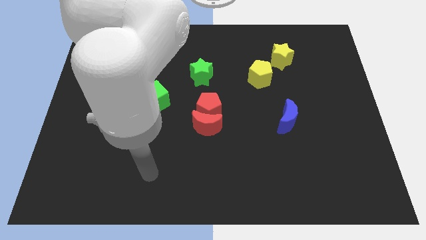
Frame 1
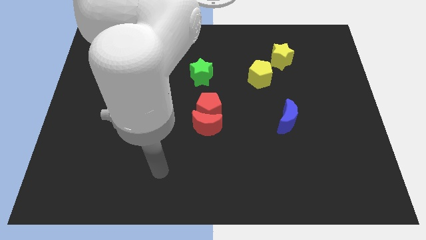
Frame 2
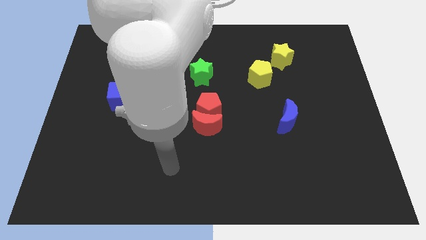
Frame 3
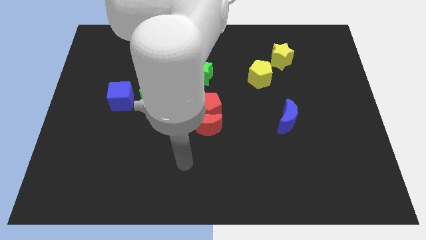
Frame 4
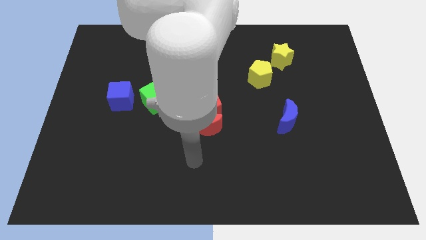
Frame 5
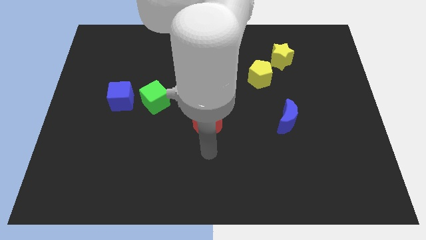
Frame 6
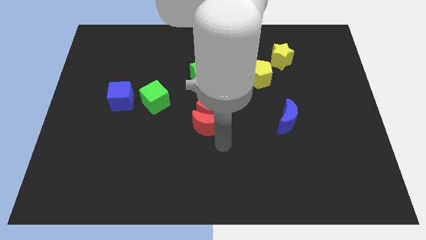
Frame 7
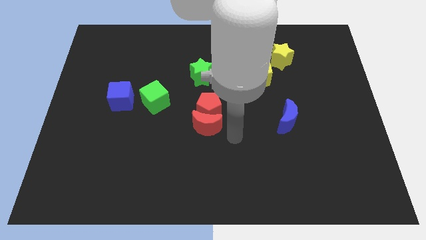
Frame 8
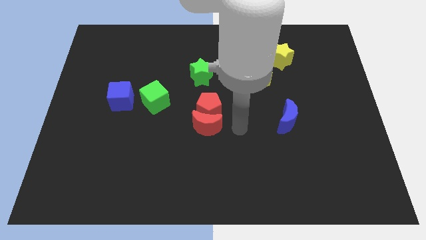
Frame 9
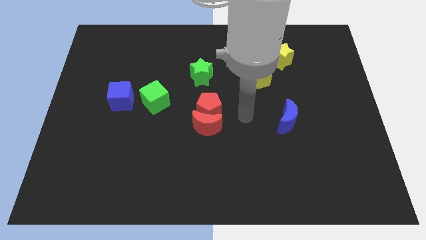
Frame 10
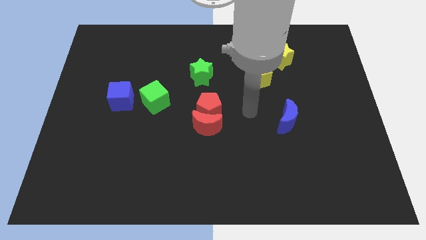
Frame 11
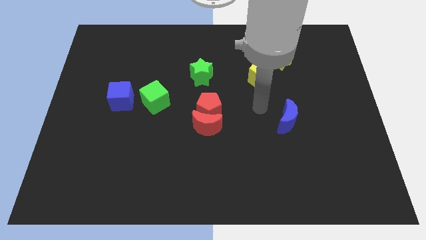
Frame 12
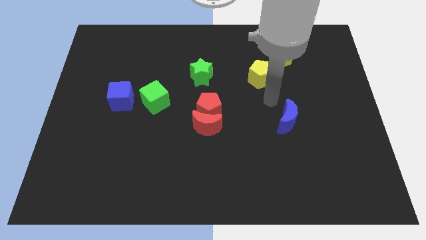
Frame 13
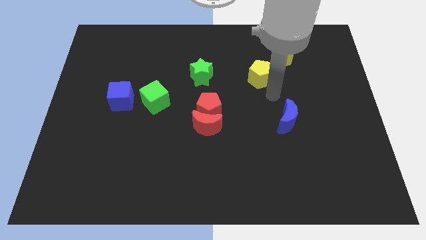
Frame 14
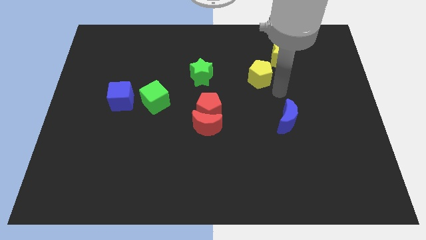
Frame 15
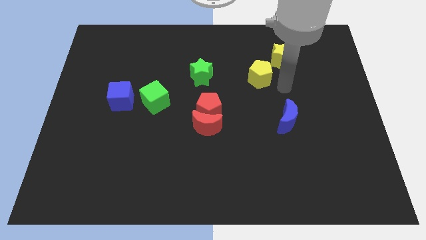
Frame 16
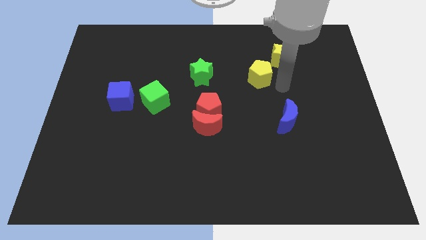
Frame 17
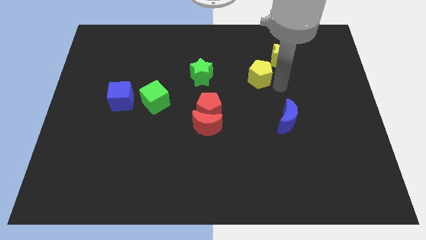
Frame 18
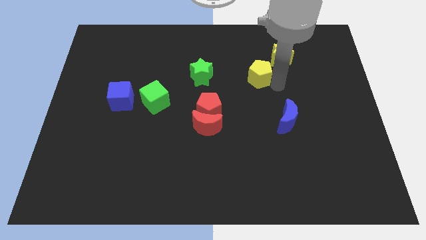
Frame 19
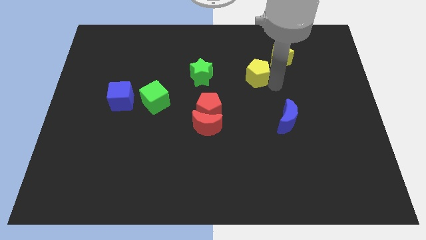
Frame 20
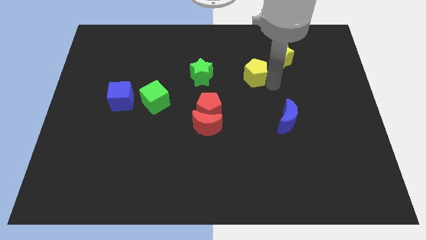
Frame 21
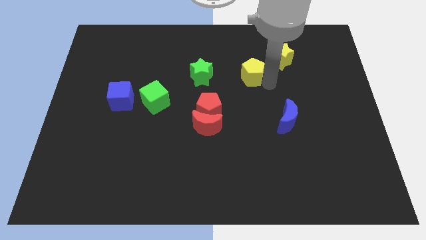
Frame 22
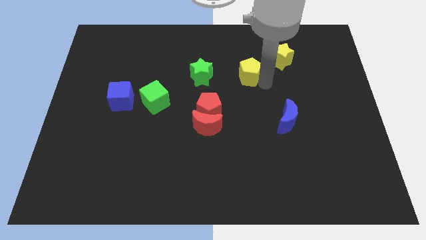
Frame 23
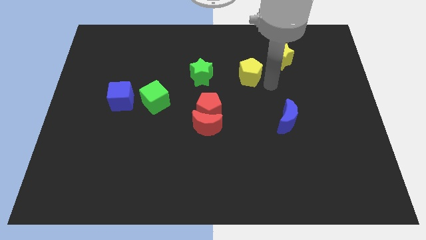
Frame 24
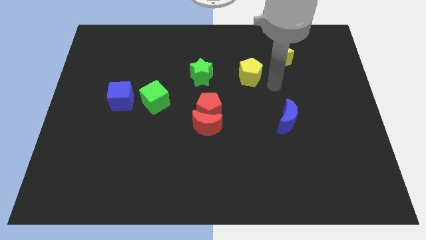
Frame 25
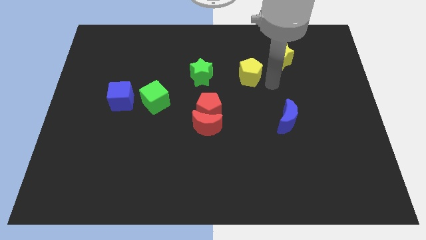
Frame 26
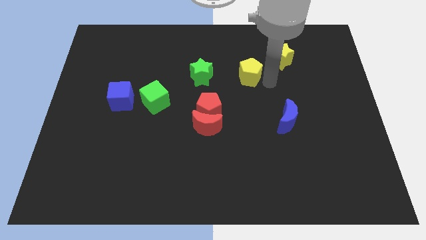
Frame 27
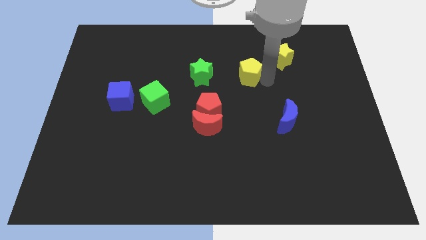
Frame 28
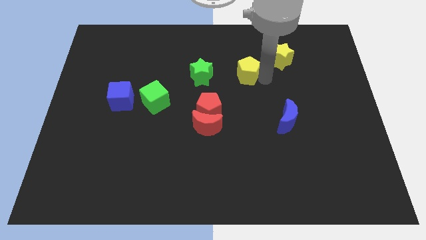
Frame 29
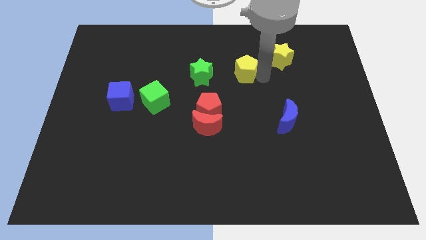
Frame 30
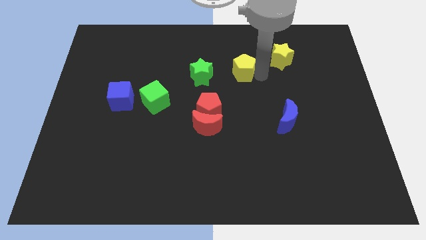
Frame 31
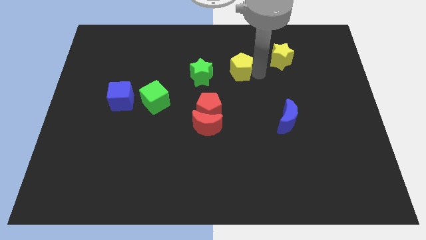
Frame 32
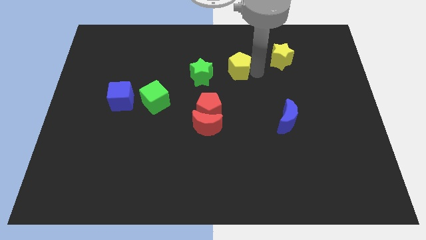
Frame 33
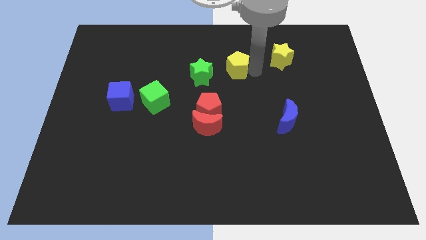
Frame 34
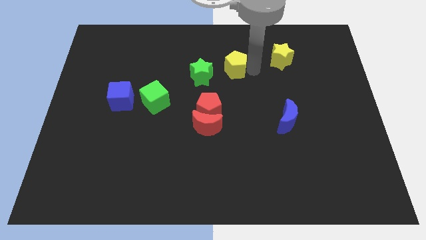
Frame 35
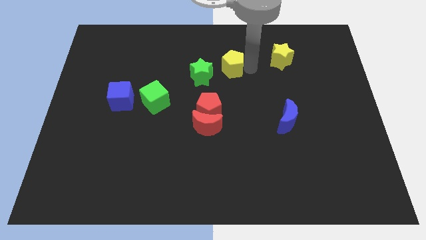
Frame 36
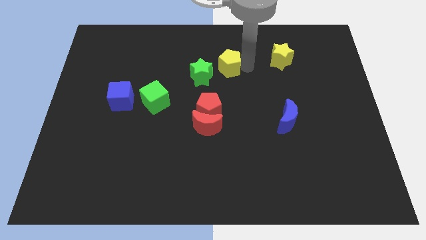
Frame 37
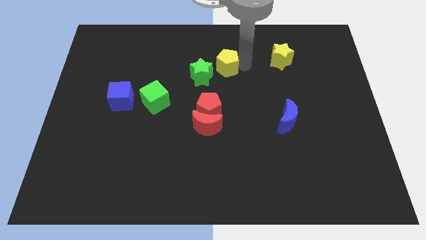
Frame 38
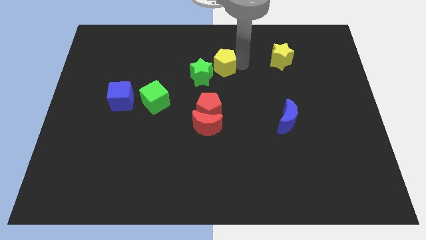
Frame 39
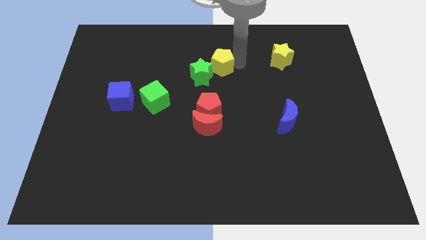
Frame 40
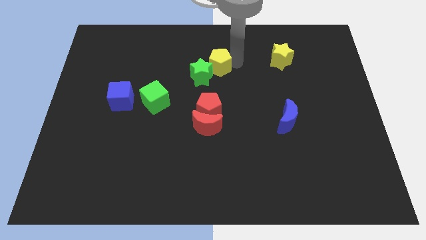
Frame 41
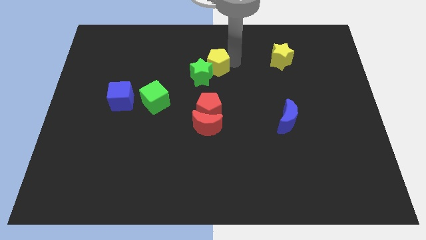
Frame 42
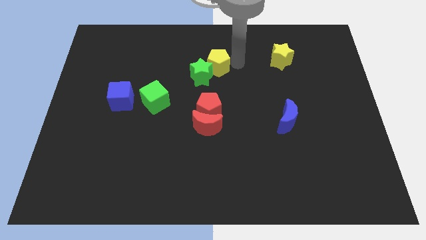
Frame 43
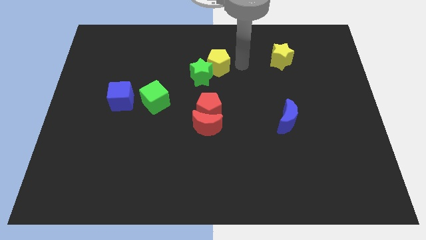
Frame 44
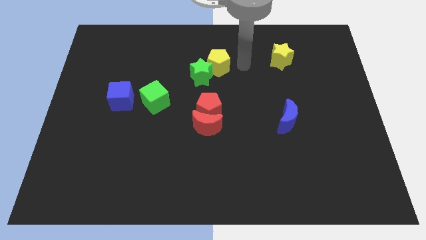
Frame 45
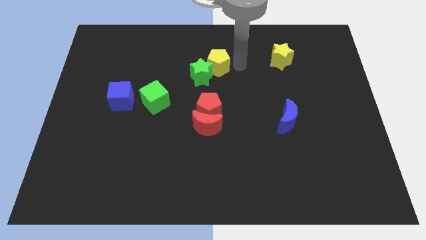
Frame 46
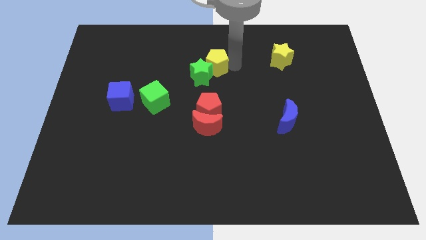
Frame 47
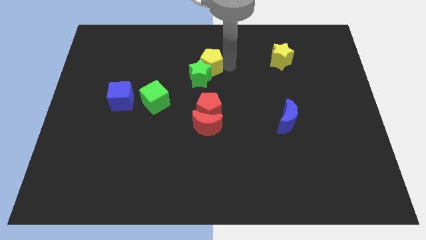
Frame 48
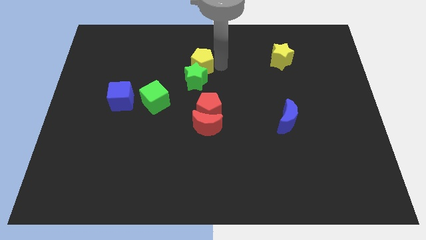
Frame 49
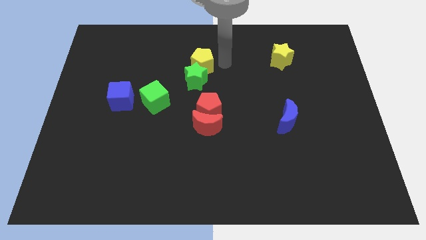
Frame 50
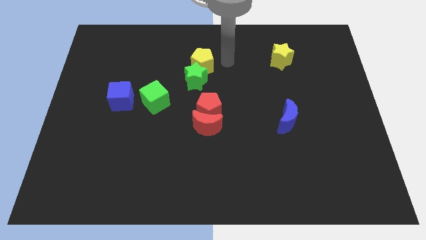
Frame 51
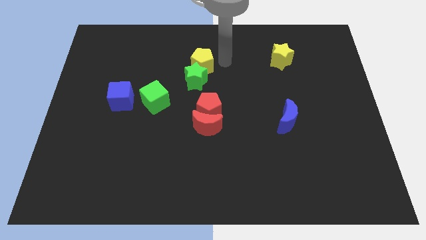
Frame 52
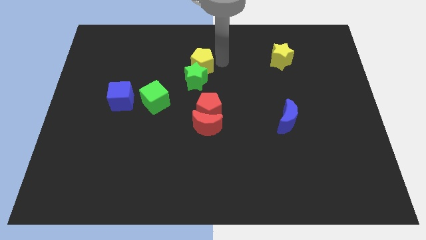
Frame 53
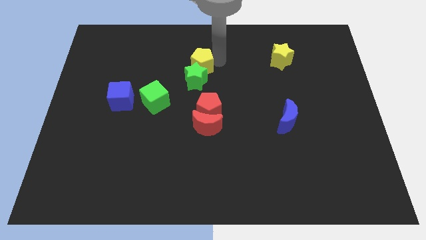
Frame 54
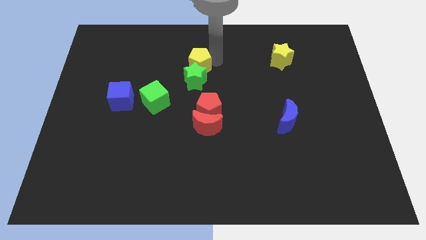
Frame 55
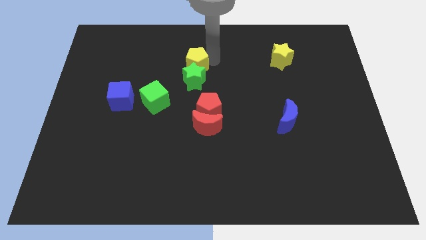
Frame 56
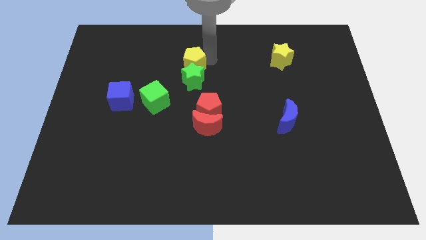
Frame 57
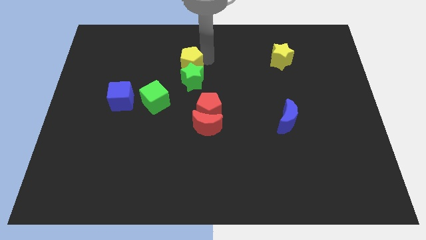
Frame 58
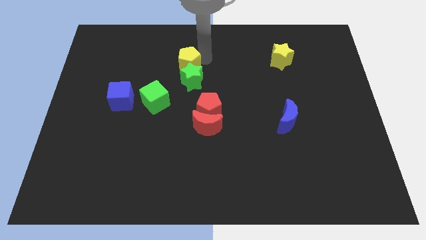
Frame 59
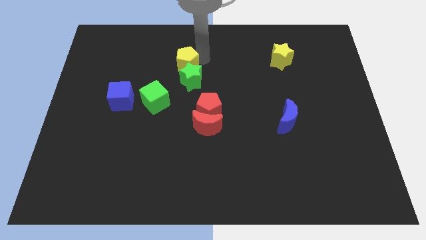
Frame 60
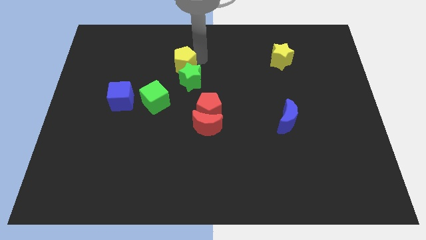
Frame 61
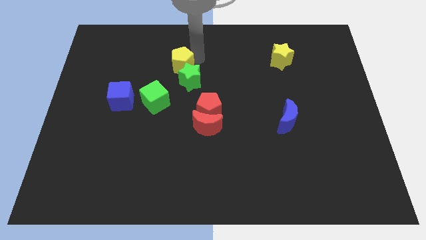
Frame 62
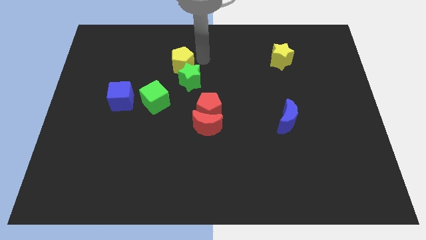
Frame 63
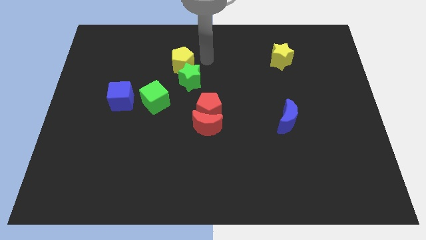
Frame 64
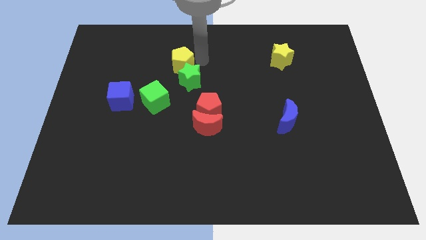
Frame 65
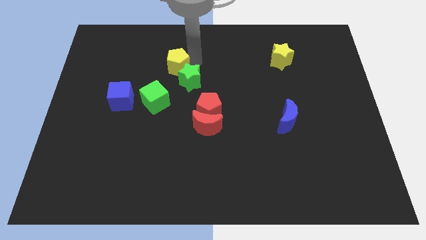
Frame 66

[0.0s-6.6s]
move the yellow pentagon to the left

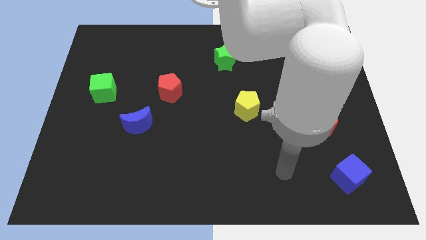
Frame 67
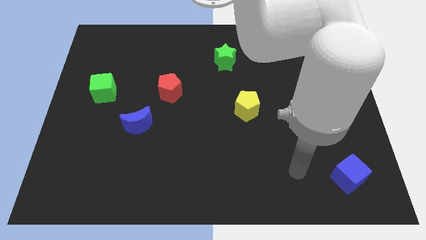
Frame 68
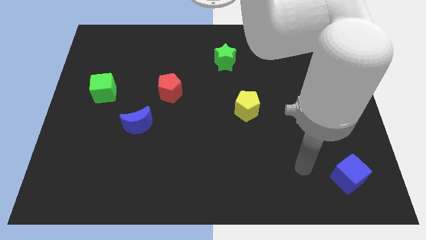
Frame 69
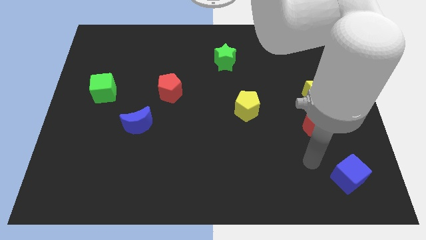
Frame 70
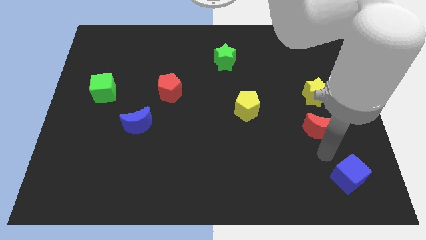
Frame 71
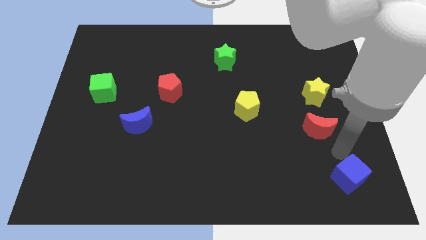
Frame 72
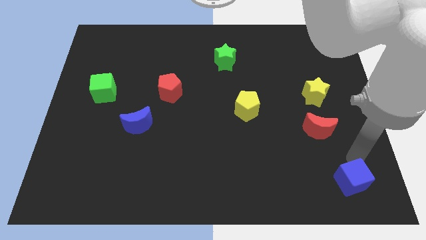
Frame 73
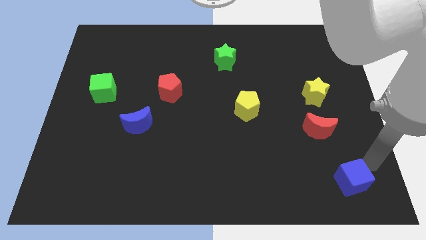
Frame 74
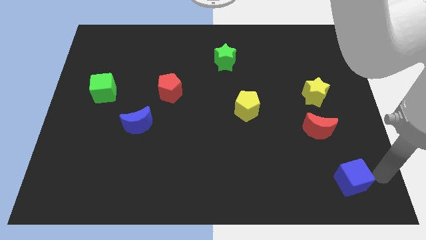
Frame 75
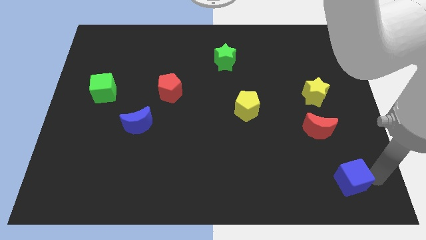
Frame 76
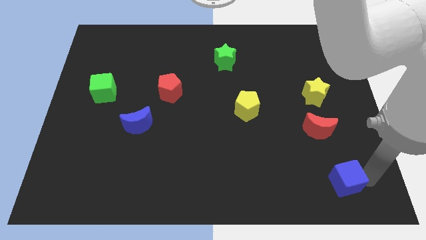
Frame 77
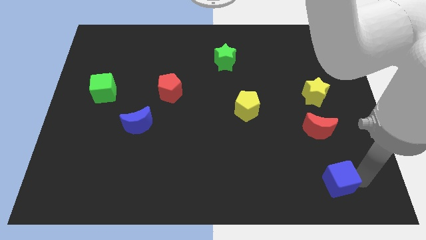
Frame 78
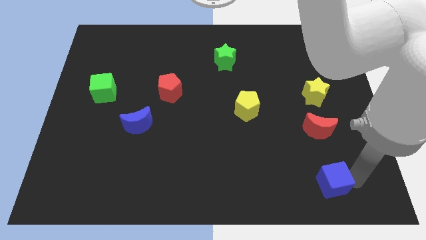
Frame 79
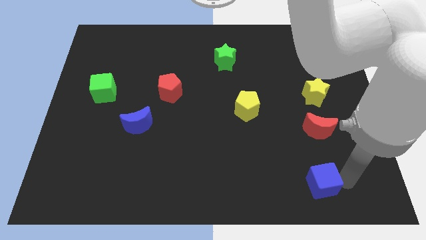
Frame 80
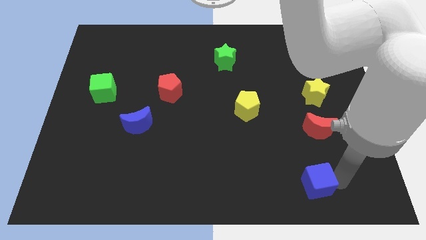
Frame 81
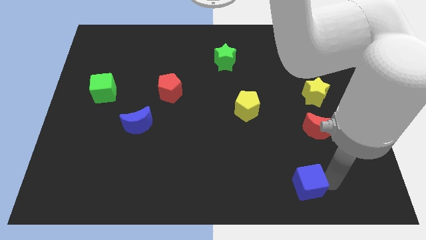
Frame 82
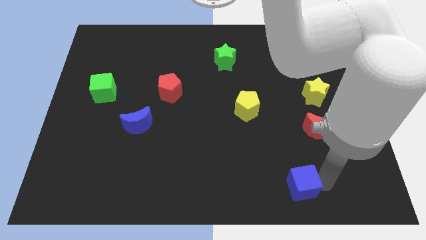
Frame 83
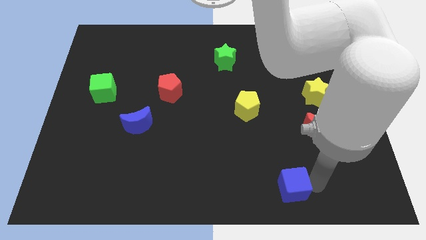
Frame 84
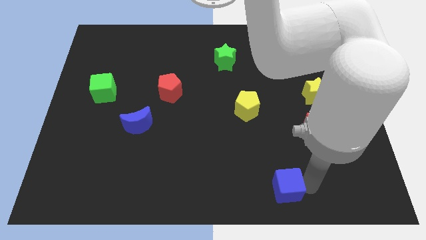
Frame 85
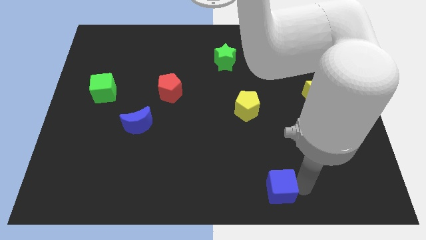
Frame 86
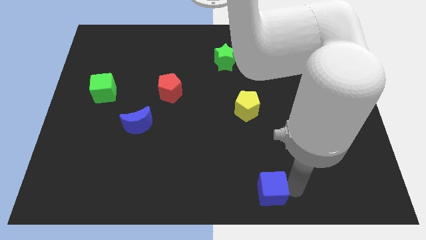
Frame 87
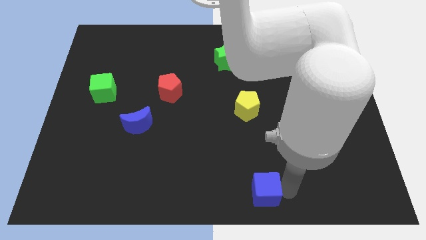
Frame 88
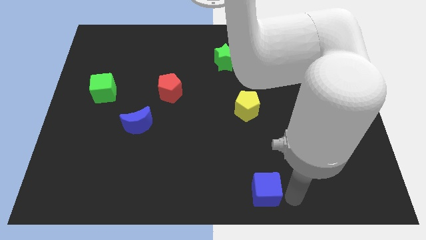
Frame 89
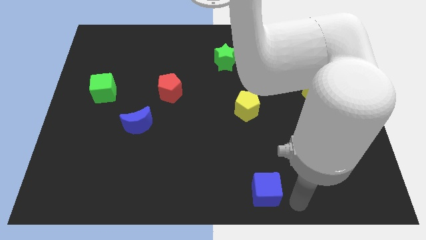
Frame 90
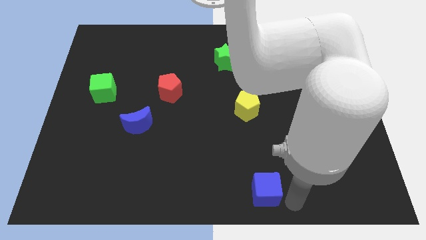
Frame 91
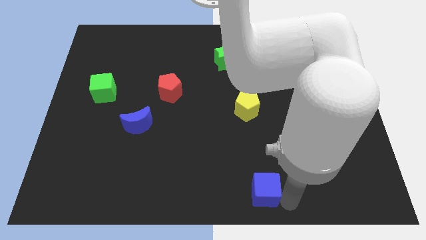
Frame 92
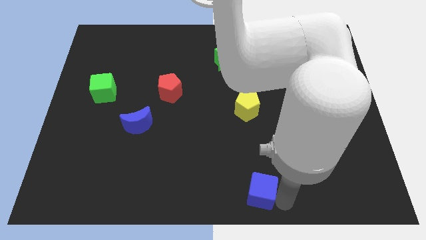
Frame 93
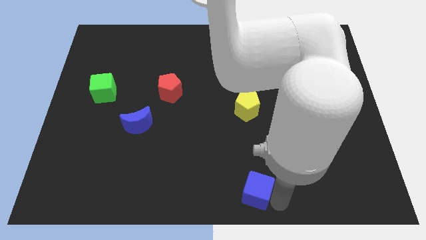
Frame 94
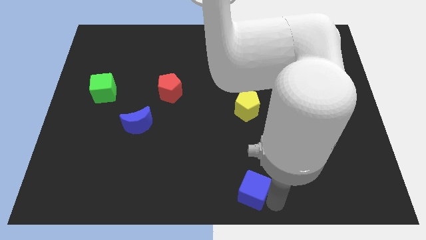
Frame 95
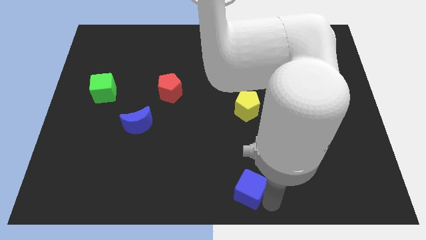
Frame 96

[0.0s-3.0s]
move the blue cube left
